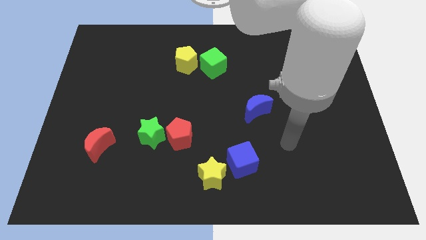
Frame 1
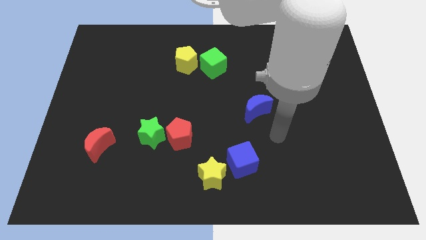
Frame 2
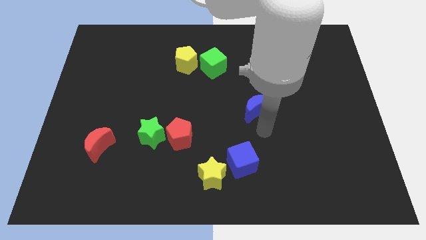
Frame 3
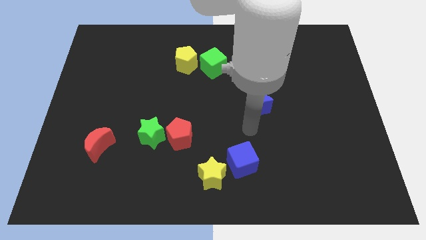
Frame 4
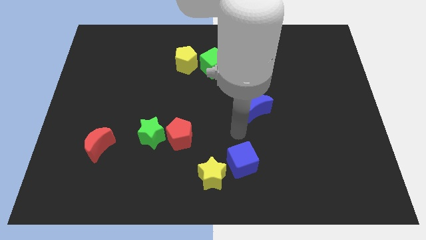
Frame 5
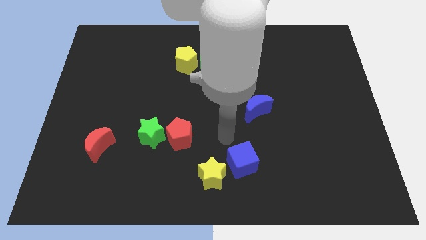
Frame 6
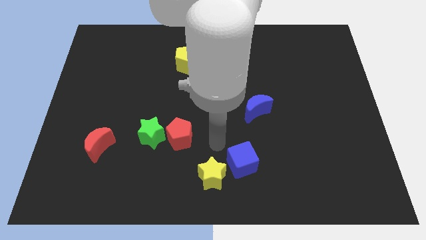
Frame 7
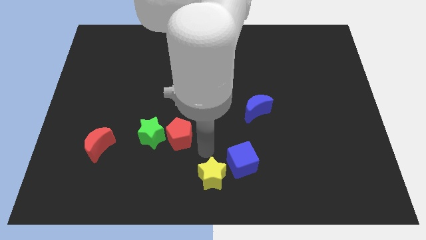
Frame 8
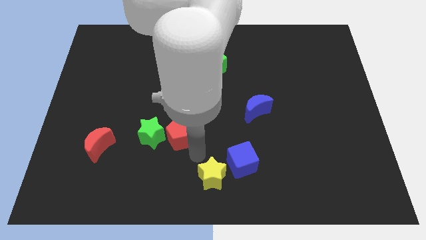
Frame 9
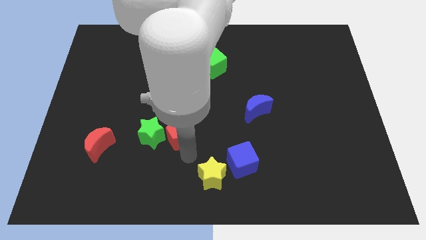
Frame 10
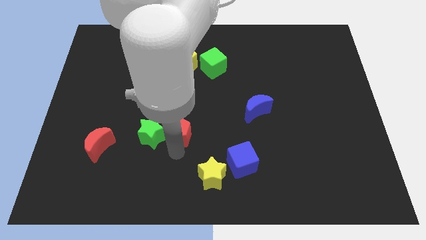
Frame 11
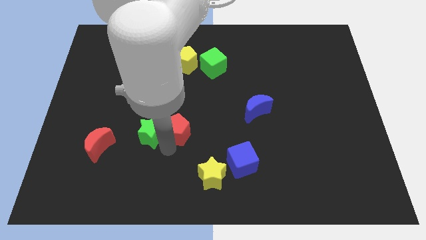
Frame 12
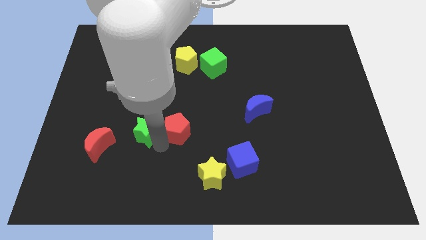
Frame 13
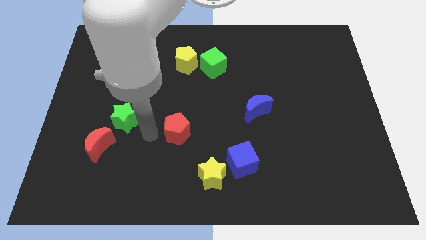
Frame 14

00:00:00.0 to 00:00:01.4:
move the red pentagon away from the green star

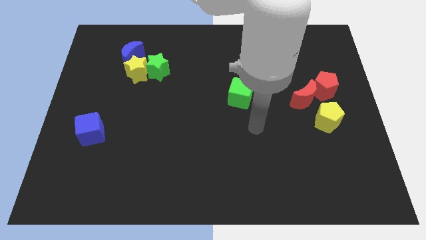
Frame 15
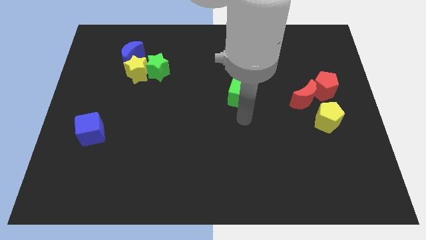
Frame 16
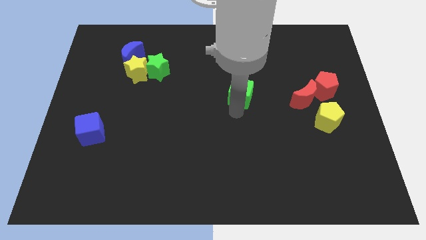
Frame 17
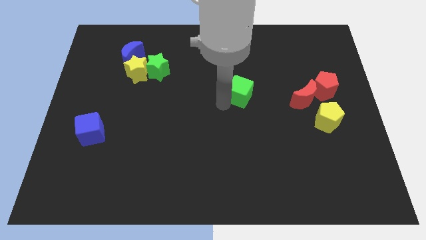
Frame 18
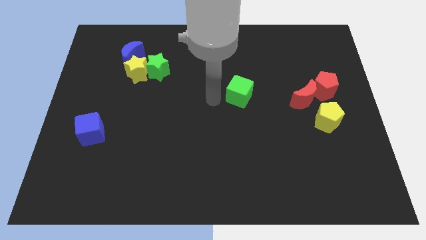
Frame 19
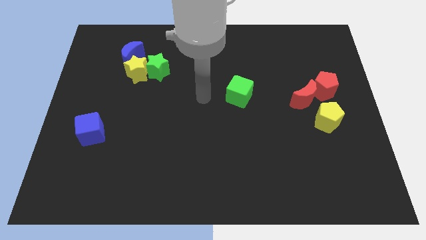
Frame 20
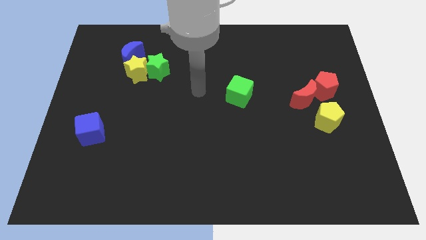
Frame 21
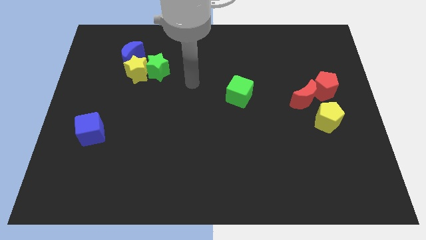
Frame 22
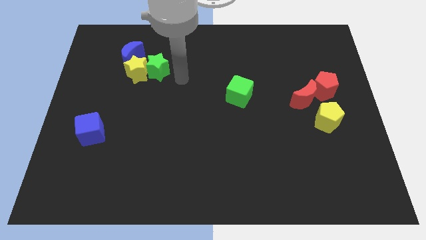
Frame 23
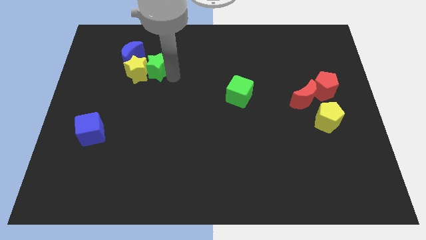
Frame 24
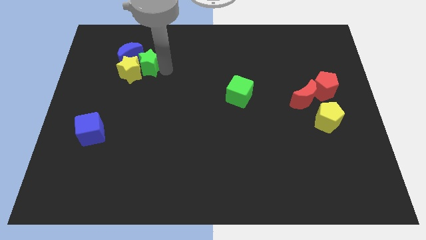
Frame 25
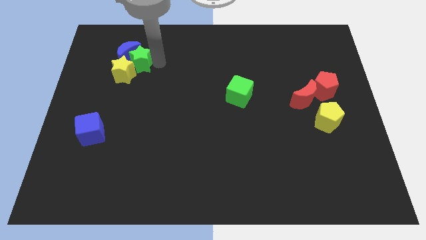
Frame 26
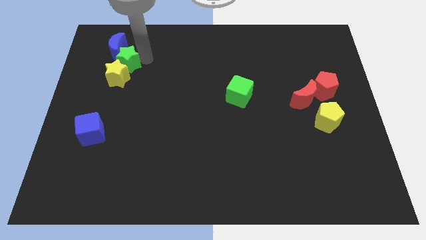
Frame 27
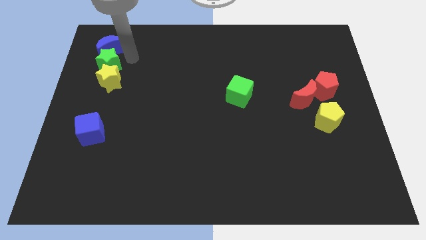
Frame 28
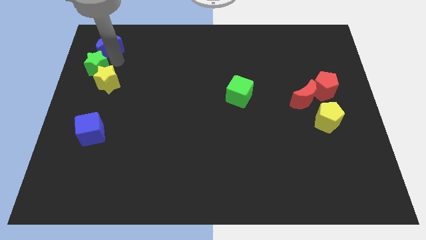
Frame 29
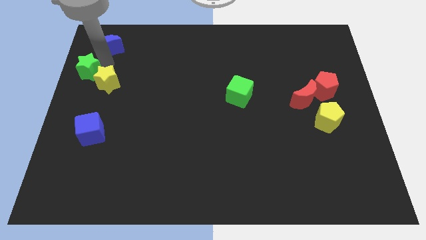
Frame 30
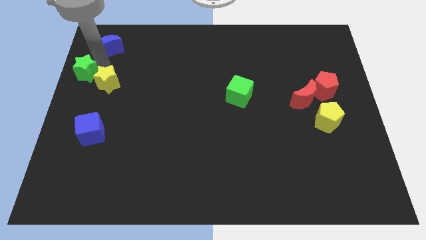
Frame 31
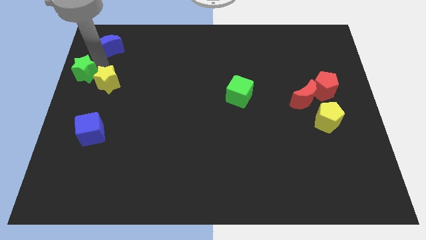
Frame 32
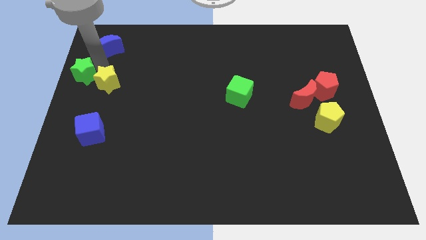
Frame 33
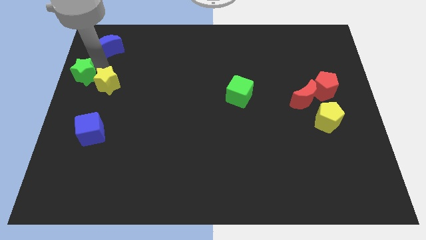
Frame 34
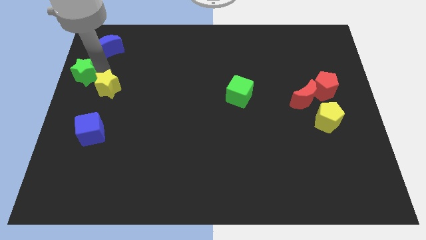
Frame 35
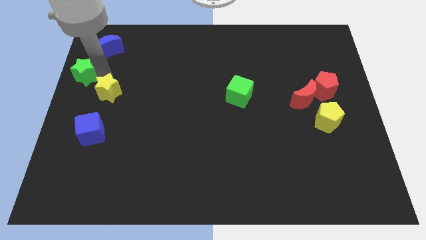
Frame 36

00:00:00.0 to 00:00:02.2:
pull the yellow star apart from the green star and blue moon

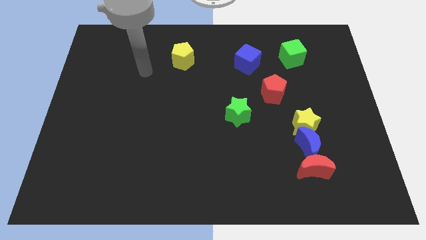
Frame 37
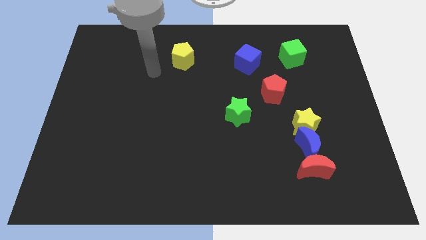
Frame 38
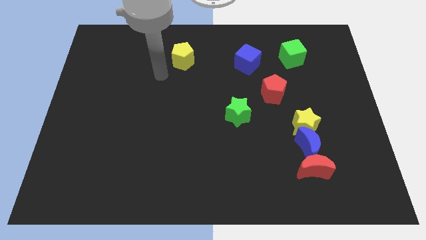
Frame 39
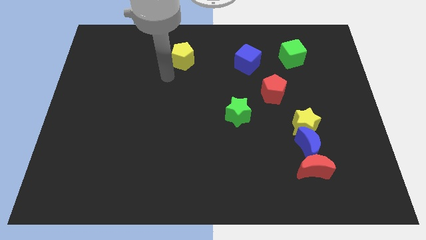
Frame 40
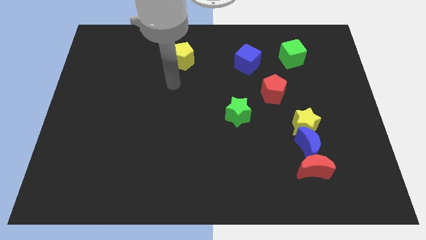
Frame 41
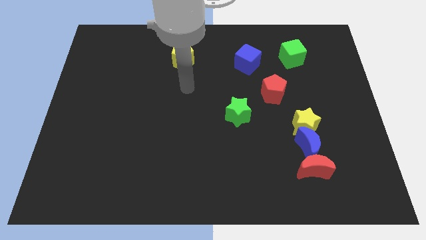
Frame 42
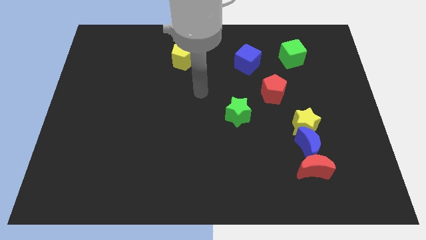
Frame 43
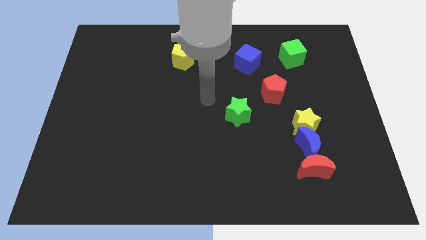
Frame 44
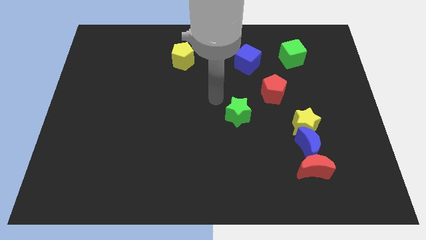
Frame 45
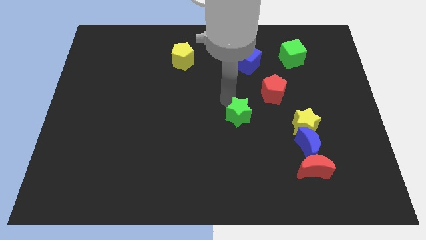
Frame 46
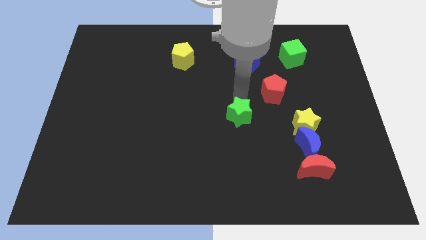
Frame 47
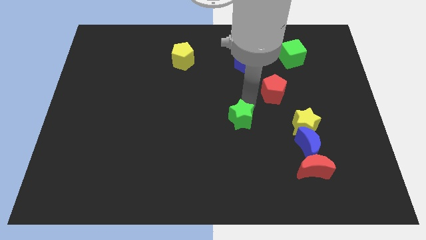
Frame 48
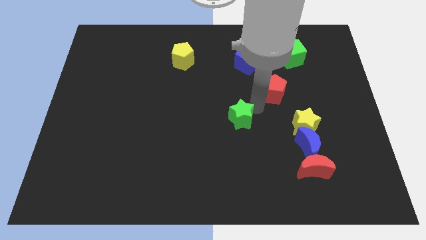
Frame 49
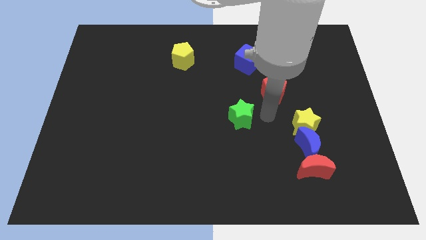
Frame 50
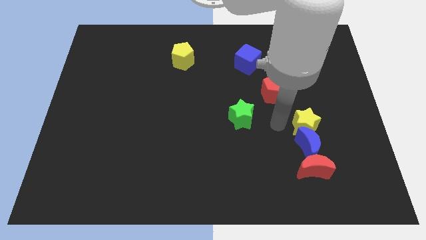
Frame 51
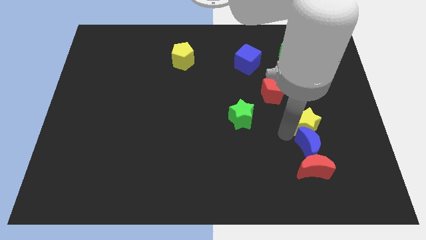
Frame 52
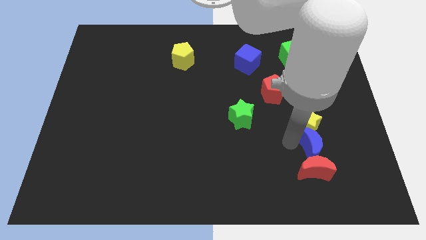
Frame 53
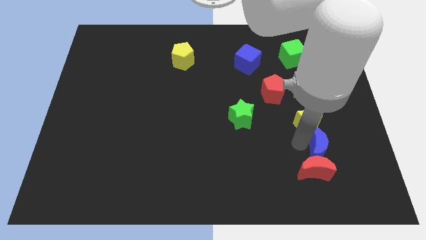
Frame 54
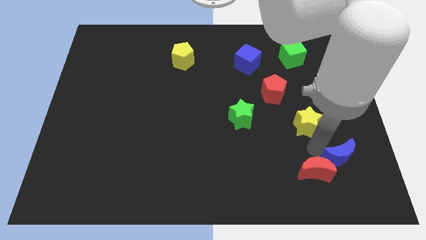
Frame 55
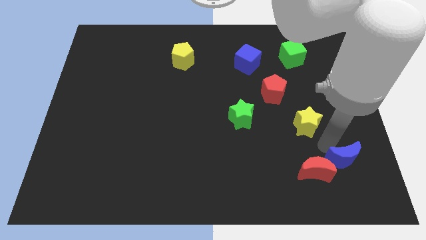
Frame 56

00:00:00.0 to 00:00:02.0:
pull the yellow star apart from the blue moon

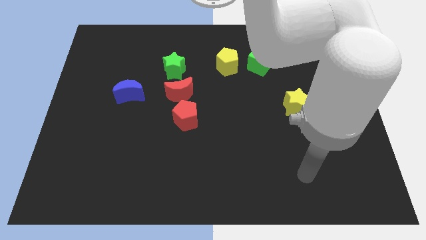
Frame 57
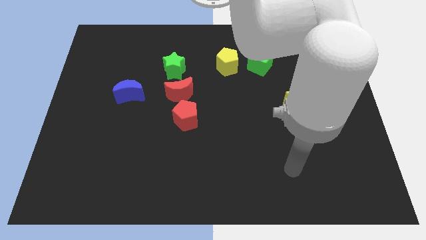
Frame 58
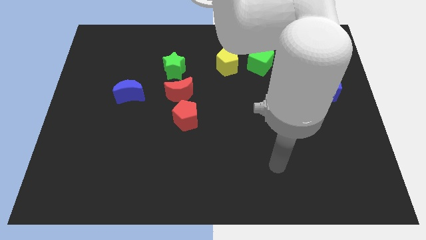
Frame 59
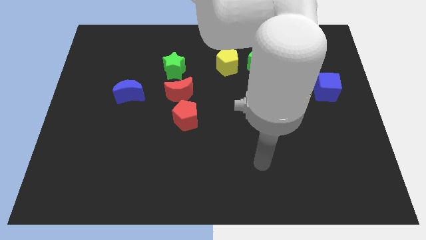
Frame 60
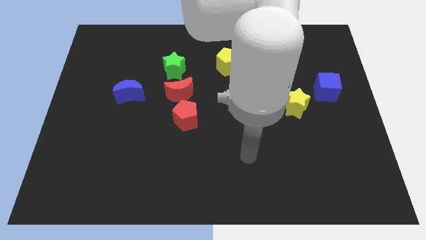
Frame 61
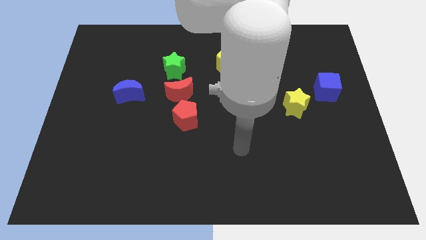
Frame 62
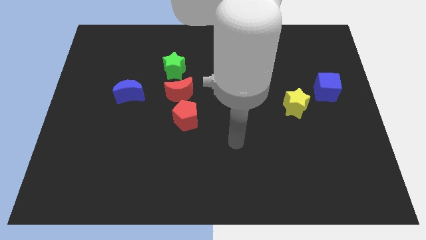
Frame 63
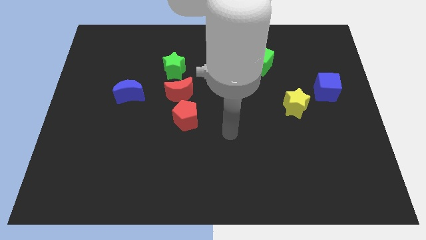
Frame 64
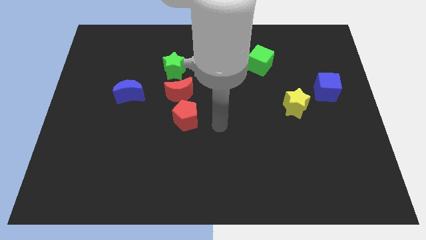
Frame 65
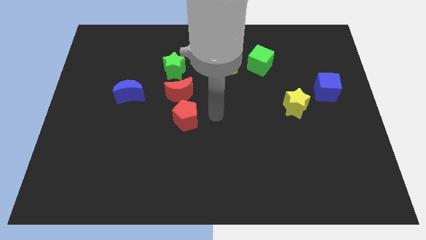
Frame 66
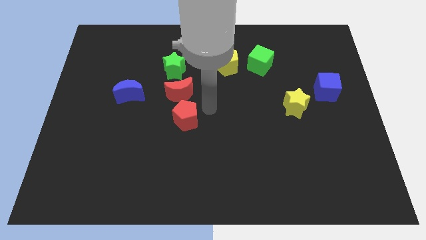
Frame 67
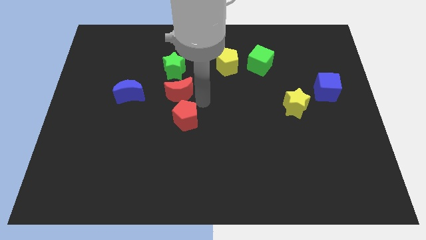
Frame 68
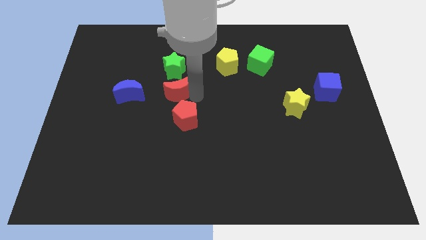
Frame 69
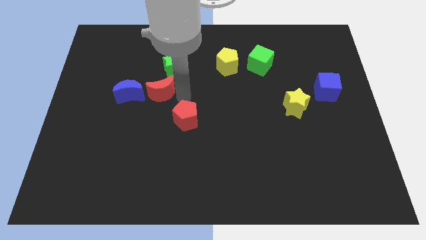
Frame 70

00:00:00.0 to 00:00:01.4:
separate the red pentagon from the red moon

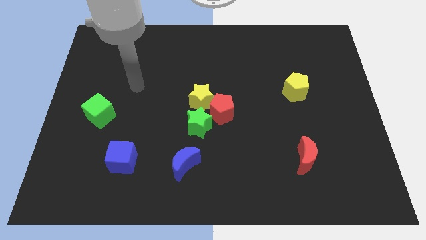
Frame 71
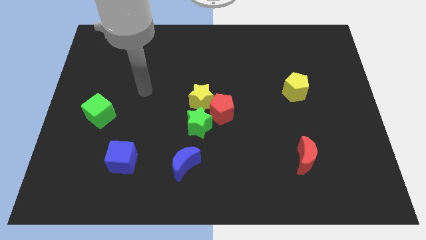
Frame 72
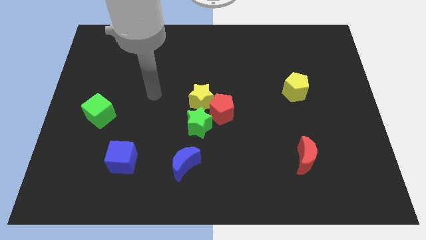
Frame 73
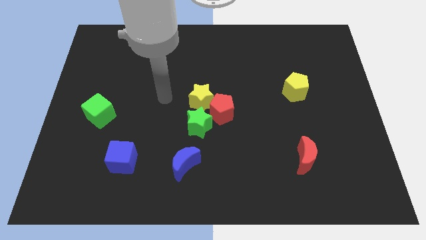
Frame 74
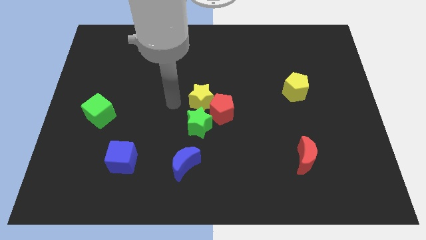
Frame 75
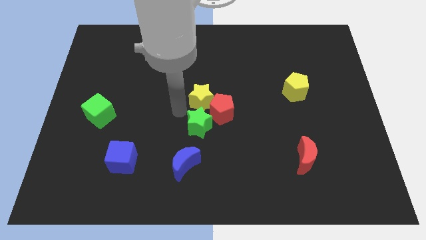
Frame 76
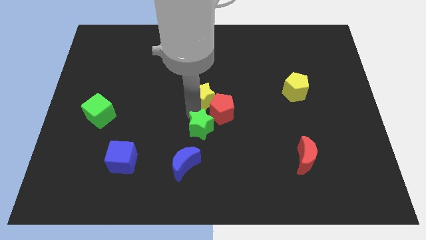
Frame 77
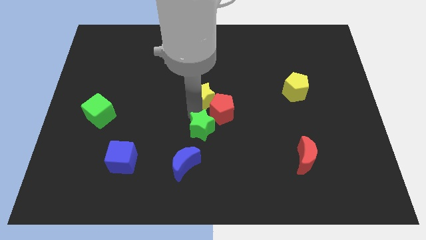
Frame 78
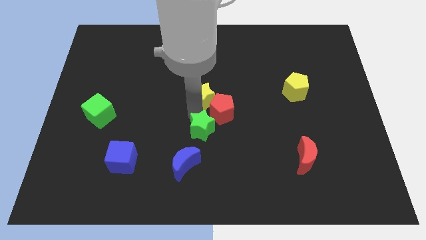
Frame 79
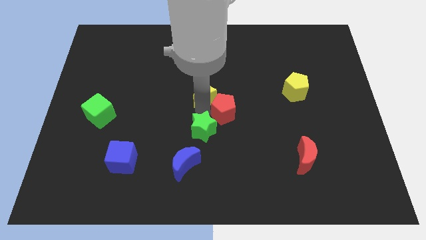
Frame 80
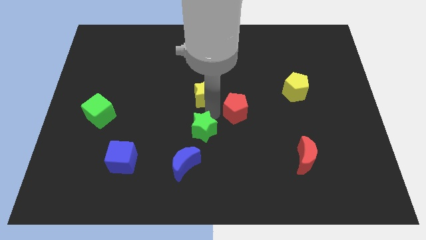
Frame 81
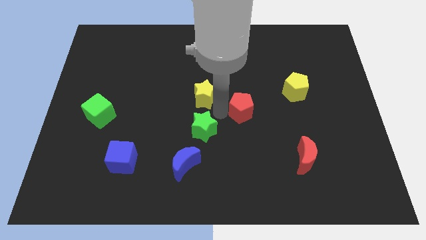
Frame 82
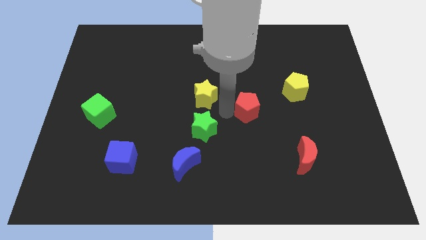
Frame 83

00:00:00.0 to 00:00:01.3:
separate the red pentagon from the yellow star and green star

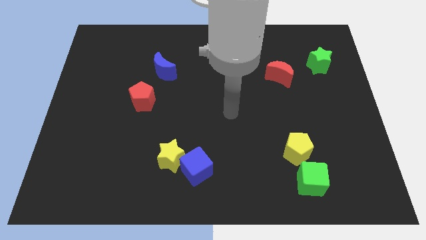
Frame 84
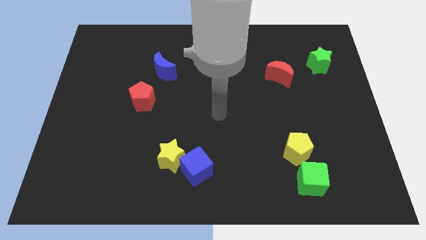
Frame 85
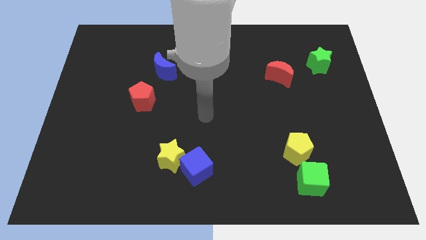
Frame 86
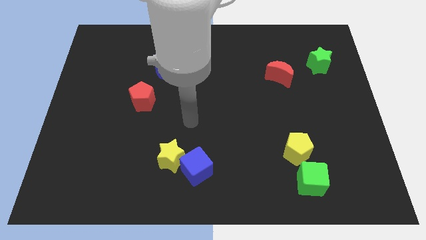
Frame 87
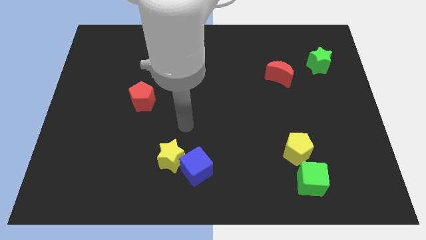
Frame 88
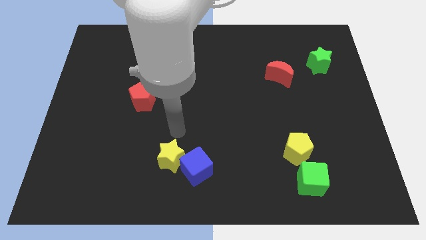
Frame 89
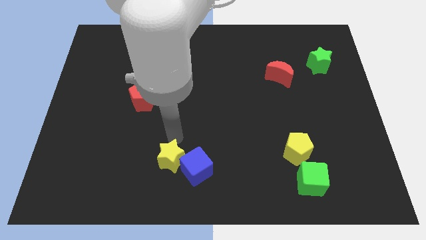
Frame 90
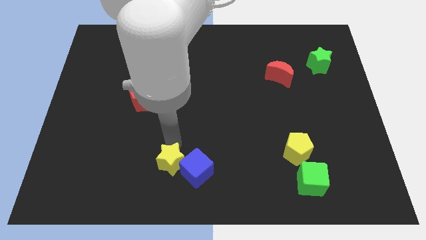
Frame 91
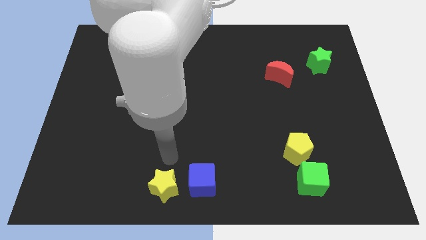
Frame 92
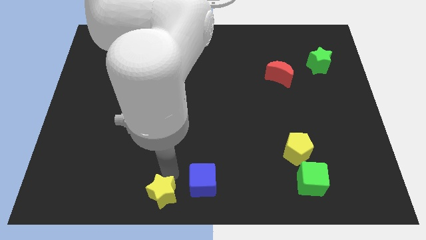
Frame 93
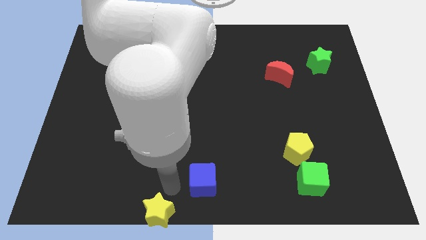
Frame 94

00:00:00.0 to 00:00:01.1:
pull the blue cube apart from the yellow star
